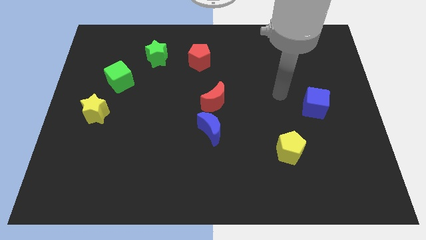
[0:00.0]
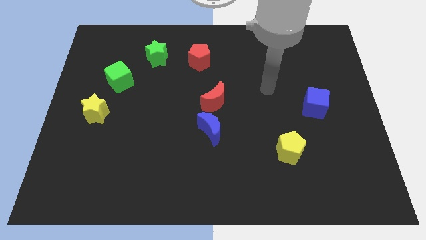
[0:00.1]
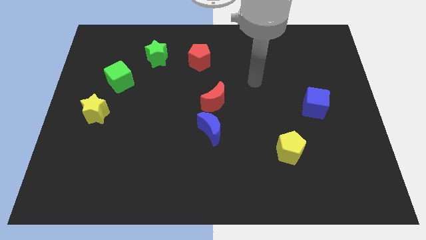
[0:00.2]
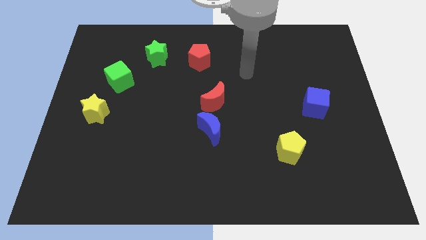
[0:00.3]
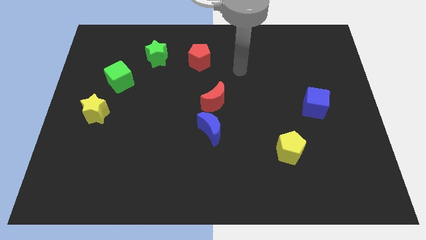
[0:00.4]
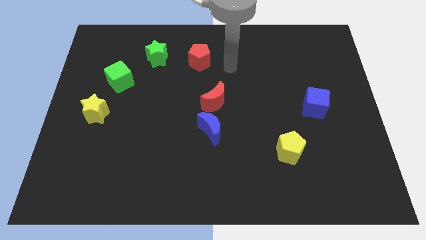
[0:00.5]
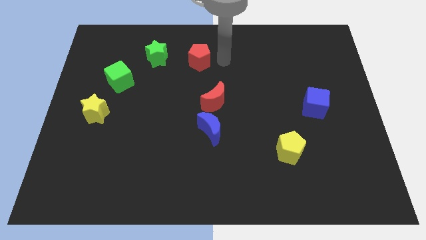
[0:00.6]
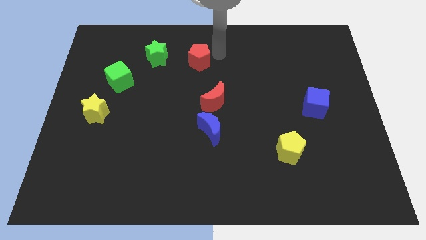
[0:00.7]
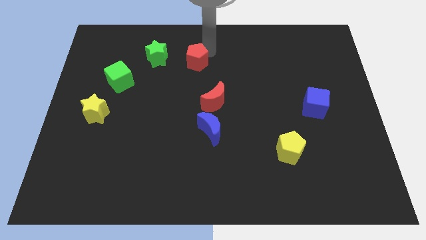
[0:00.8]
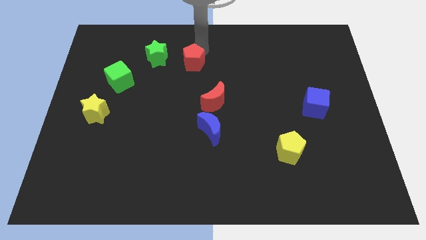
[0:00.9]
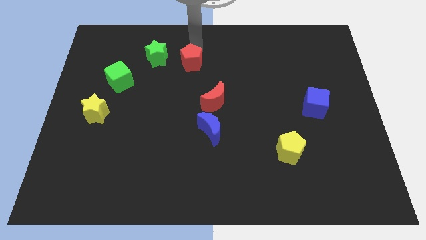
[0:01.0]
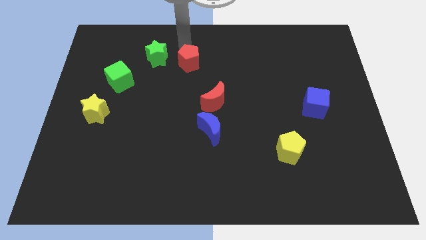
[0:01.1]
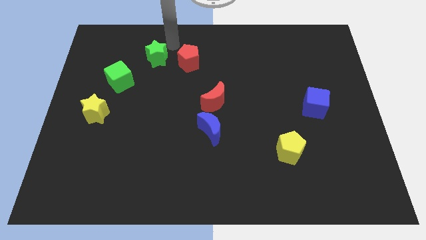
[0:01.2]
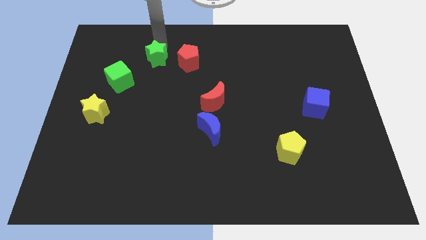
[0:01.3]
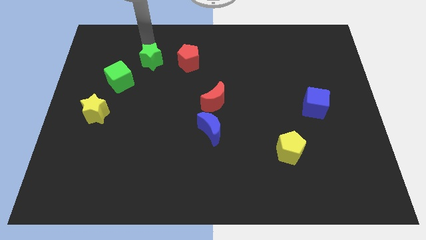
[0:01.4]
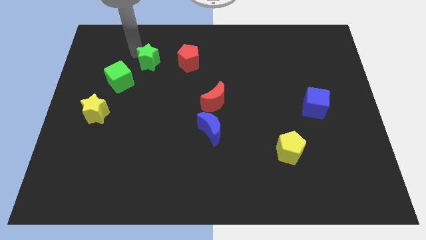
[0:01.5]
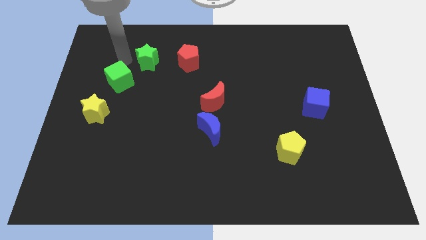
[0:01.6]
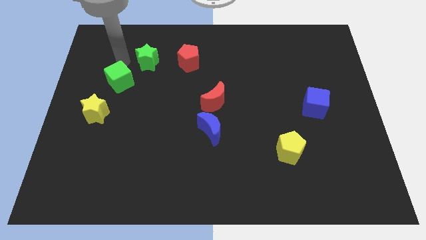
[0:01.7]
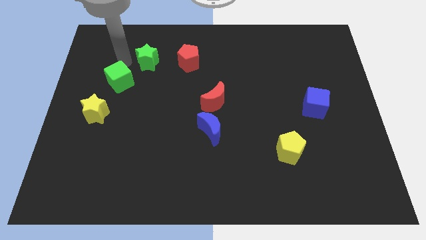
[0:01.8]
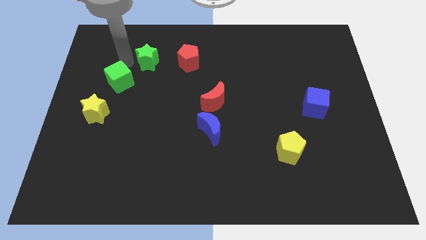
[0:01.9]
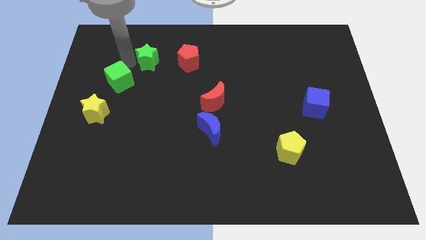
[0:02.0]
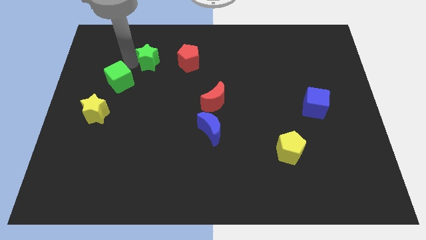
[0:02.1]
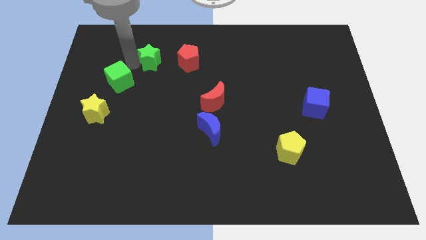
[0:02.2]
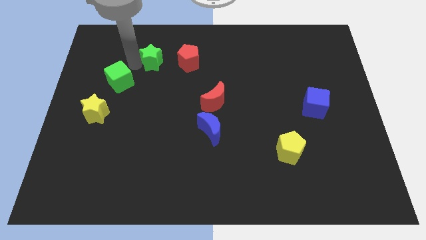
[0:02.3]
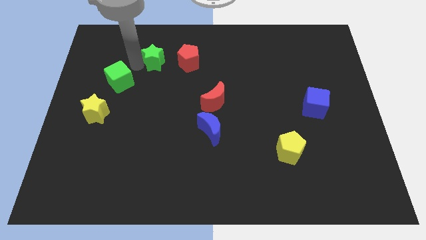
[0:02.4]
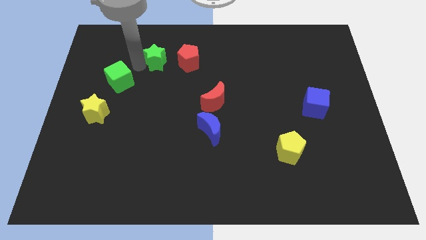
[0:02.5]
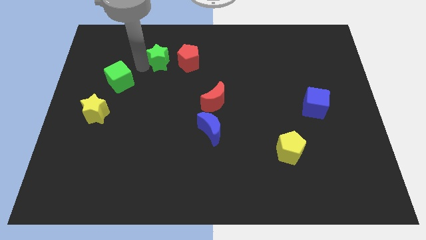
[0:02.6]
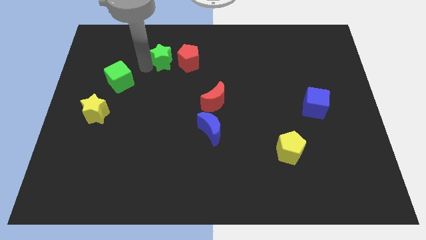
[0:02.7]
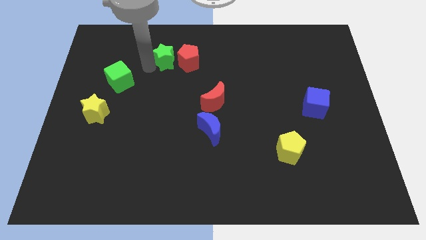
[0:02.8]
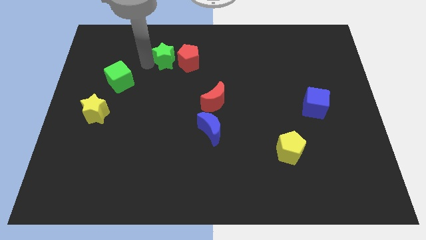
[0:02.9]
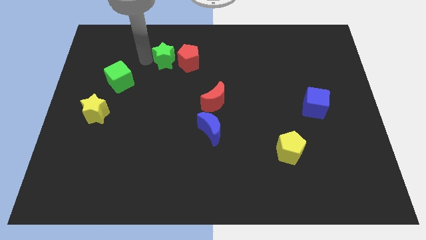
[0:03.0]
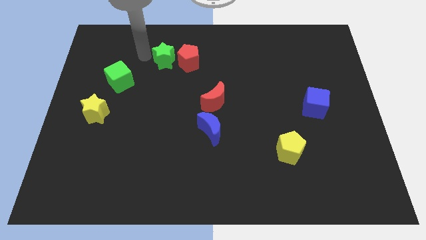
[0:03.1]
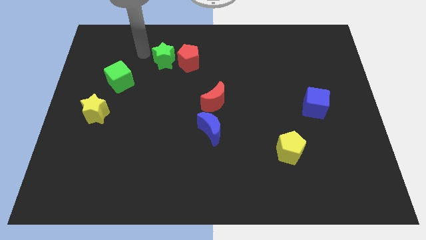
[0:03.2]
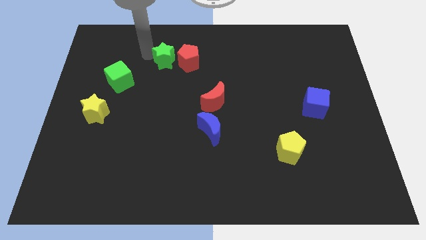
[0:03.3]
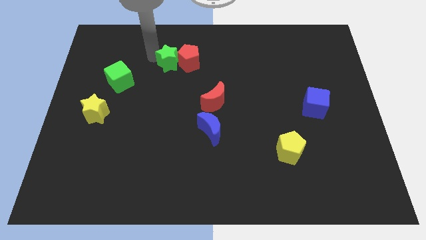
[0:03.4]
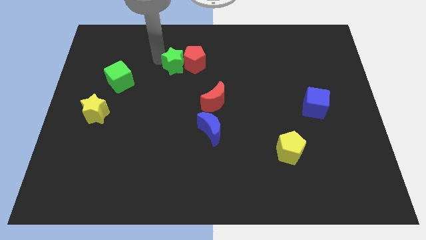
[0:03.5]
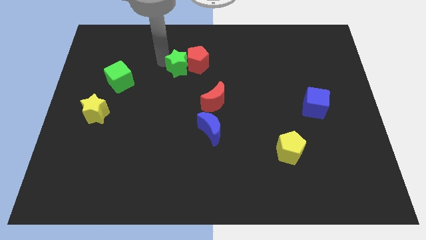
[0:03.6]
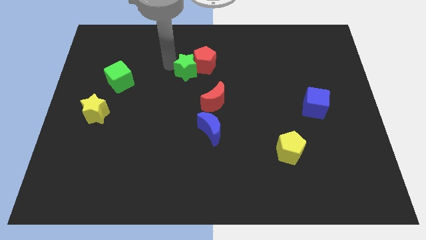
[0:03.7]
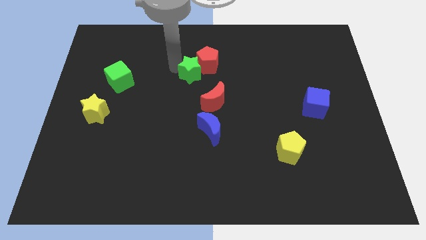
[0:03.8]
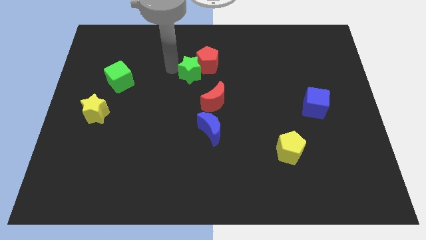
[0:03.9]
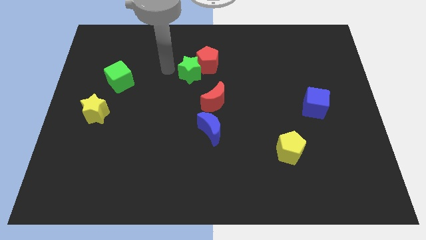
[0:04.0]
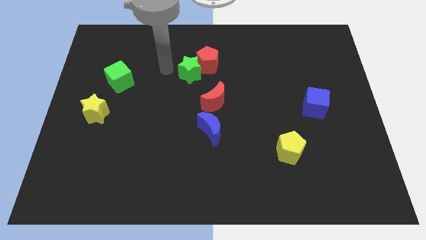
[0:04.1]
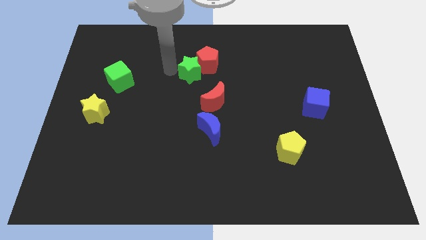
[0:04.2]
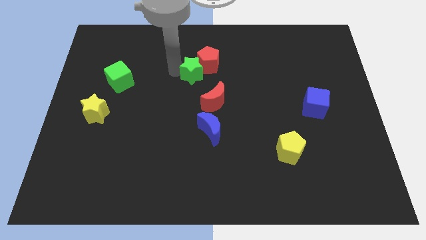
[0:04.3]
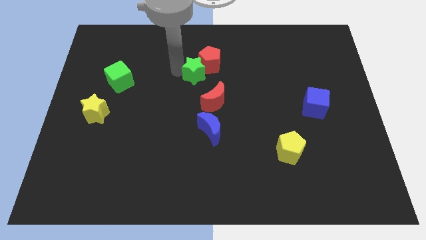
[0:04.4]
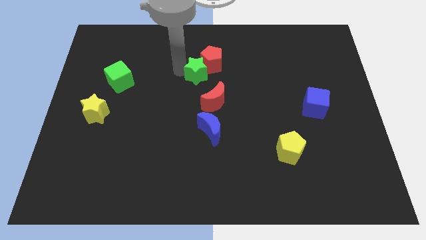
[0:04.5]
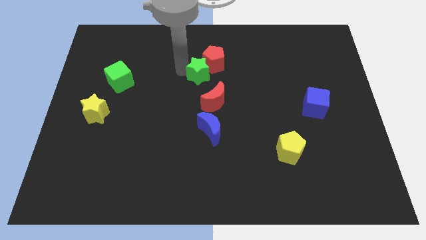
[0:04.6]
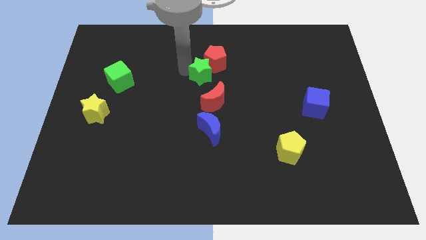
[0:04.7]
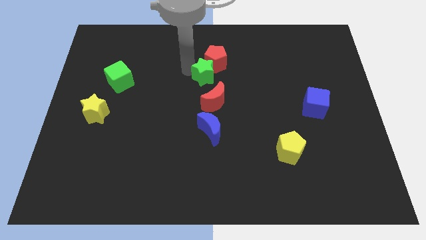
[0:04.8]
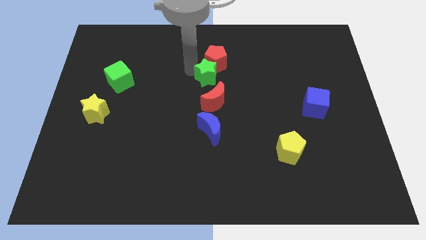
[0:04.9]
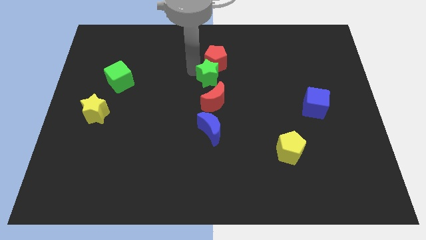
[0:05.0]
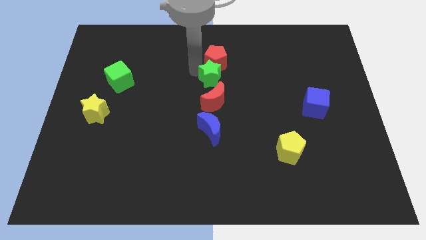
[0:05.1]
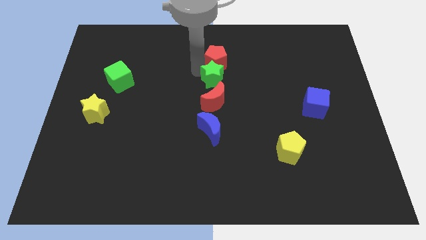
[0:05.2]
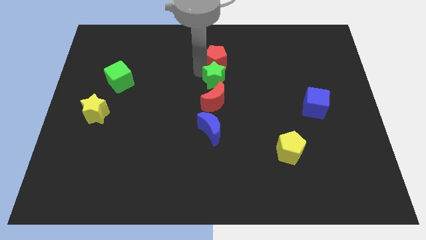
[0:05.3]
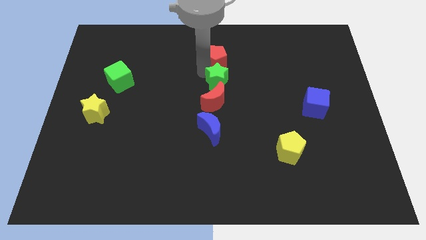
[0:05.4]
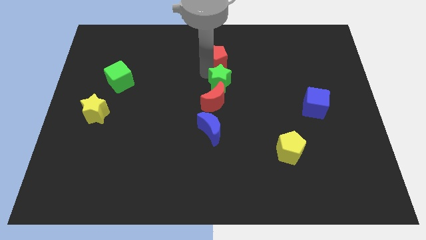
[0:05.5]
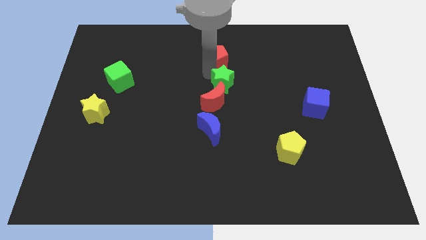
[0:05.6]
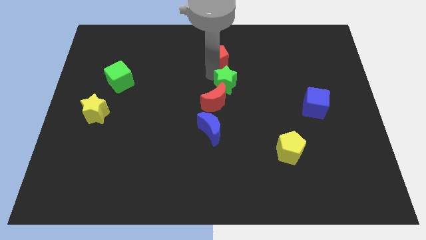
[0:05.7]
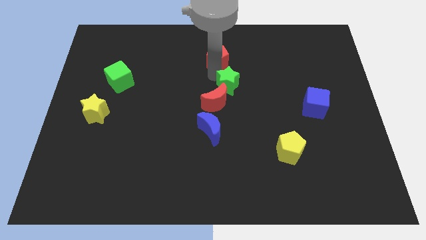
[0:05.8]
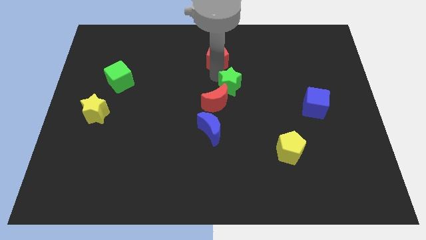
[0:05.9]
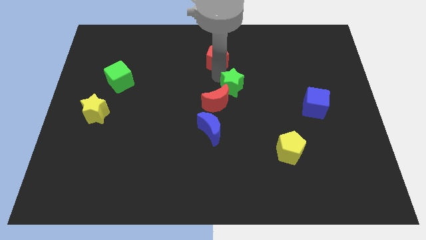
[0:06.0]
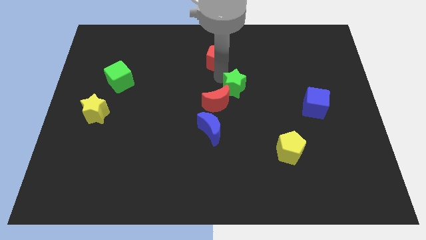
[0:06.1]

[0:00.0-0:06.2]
slide the green star downwards and right

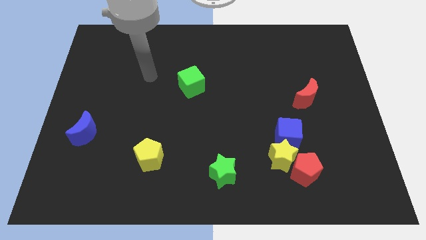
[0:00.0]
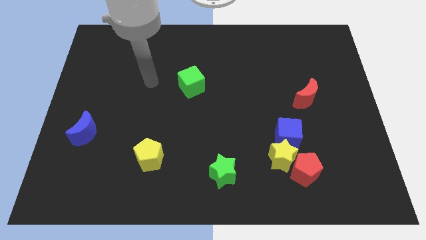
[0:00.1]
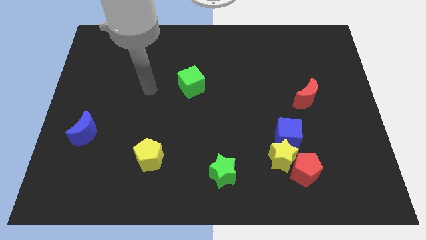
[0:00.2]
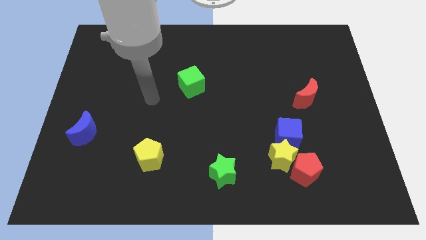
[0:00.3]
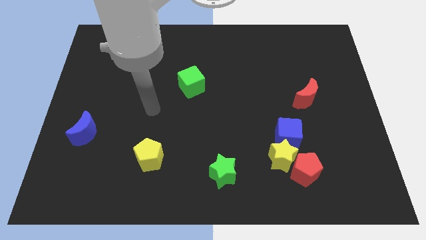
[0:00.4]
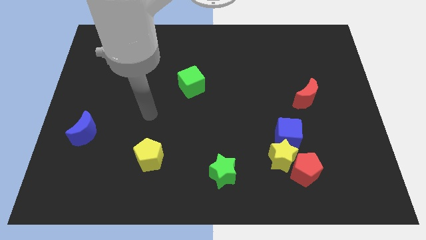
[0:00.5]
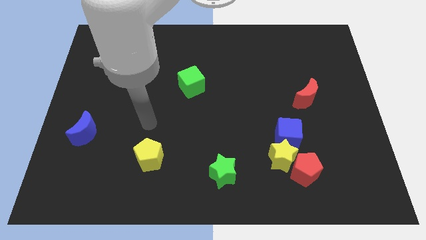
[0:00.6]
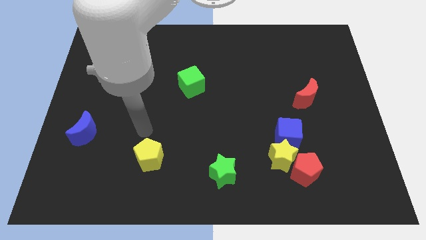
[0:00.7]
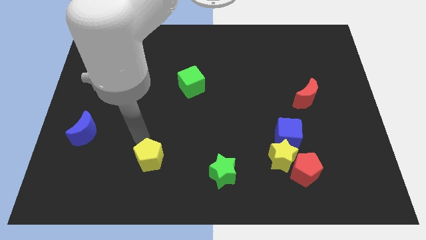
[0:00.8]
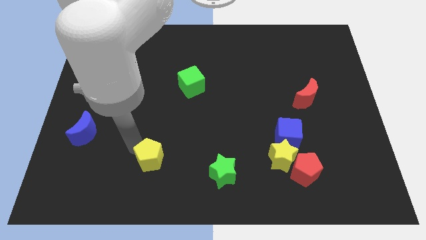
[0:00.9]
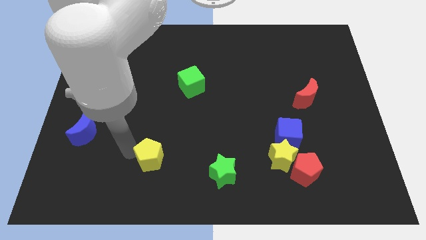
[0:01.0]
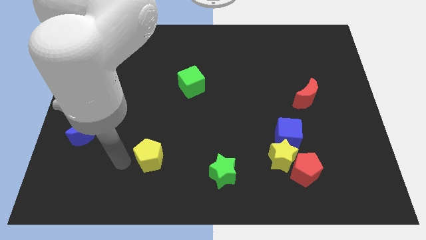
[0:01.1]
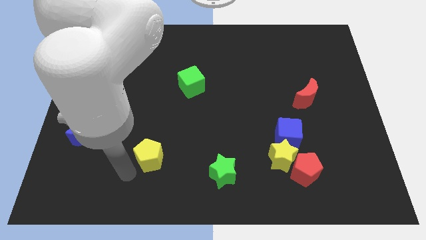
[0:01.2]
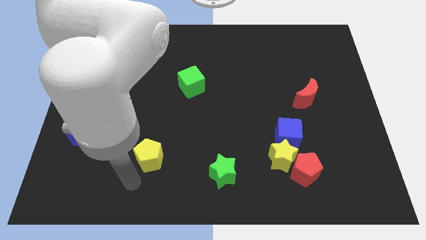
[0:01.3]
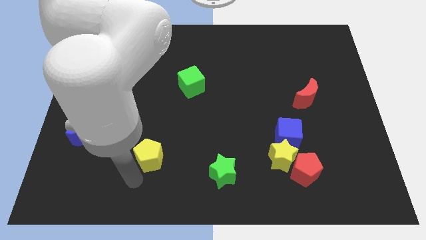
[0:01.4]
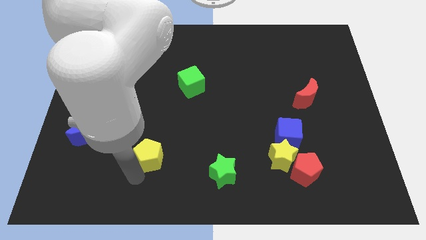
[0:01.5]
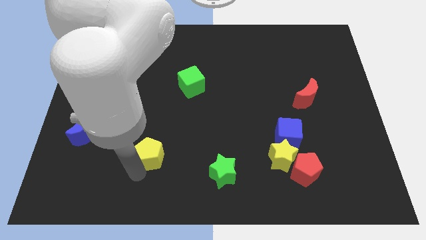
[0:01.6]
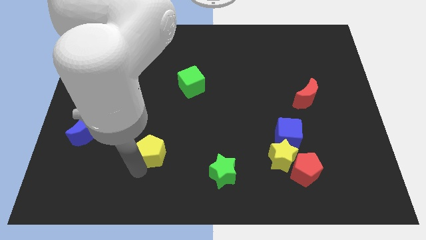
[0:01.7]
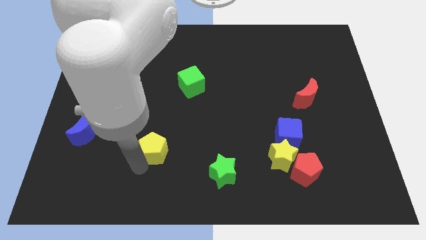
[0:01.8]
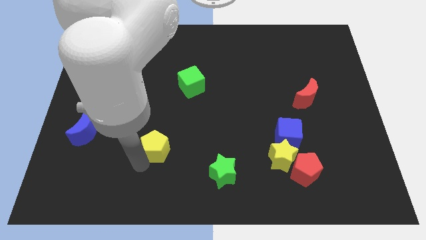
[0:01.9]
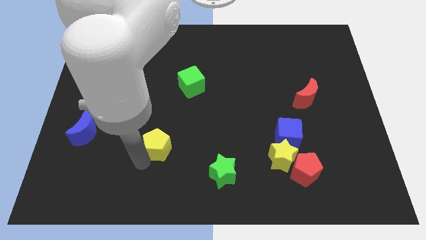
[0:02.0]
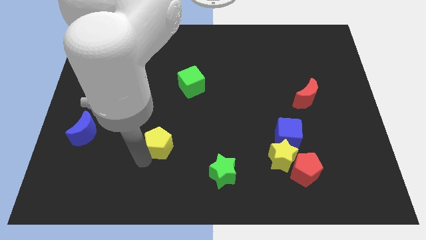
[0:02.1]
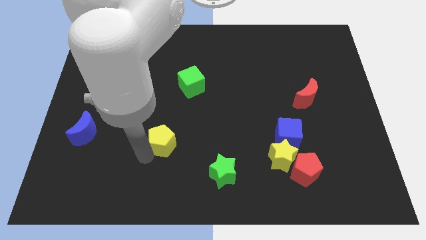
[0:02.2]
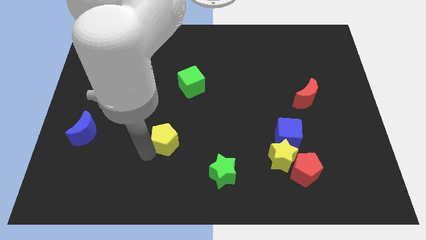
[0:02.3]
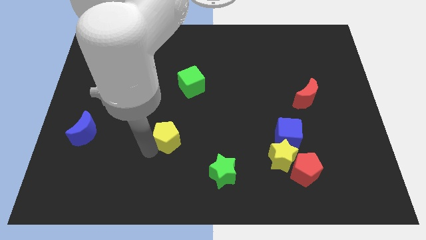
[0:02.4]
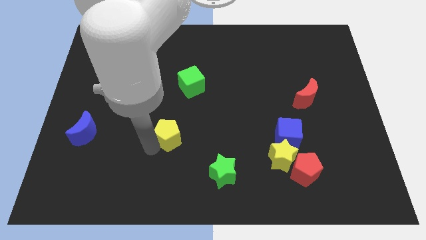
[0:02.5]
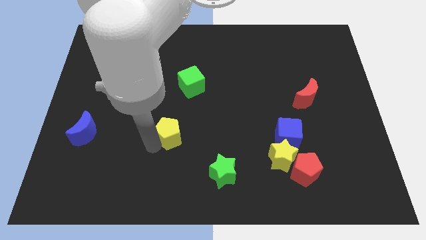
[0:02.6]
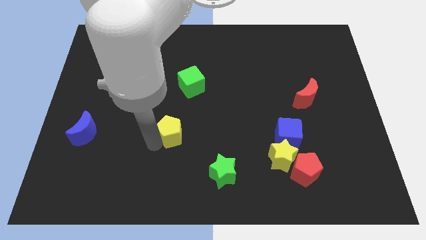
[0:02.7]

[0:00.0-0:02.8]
move the yellow pentagon up and then to the right slightly
